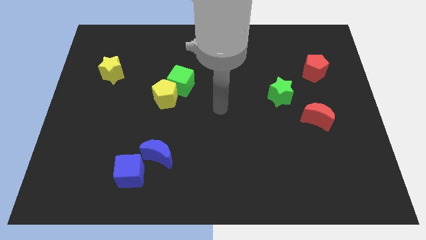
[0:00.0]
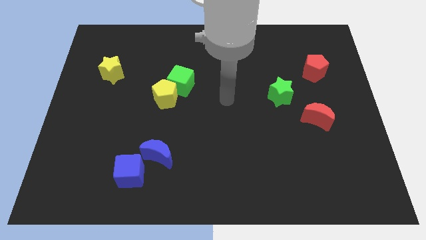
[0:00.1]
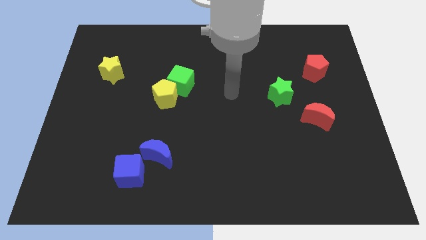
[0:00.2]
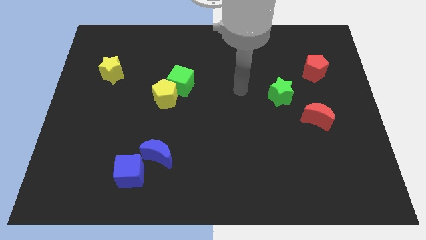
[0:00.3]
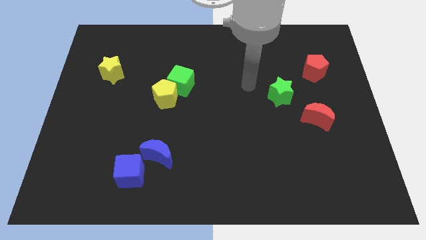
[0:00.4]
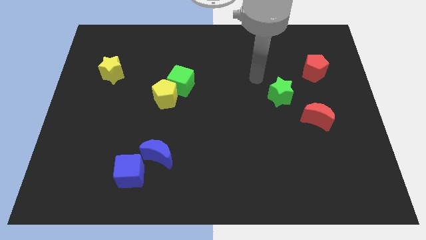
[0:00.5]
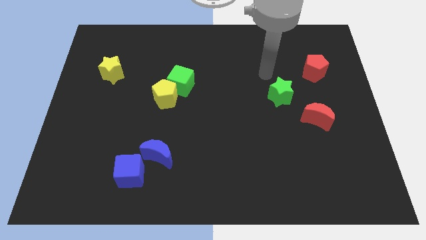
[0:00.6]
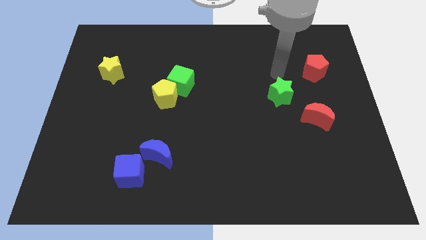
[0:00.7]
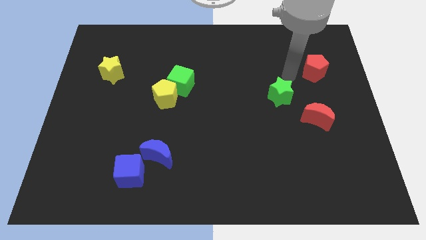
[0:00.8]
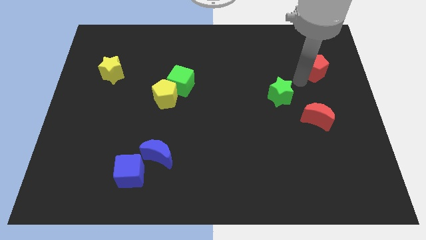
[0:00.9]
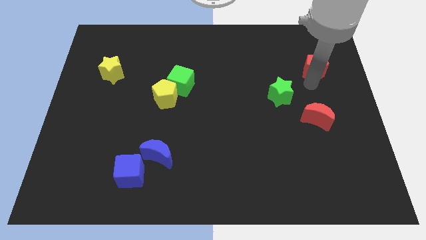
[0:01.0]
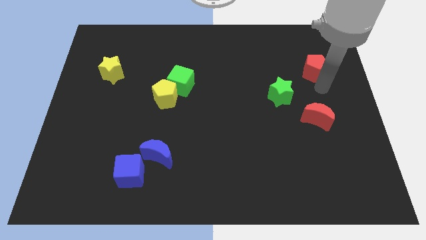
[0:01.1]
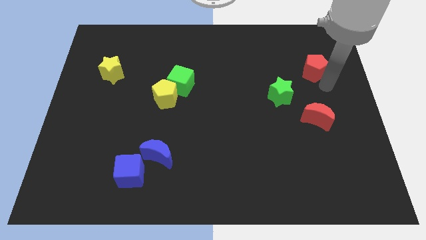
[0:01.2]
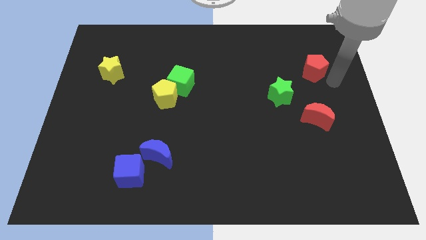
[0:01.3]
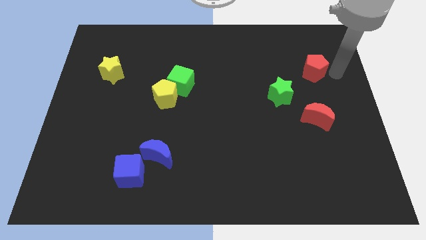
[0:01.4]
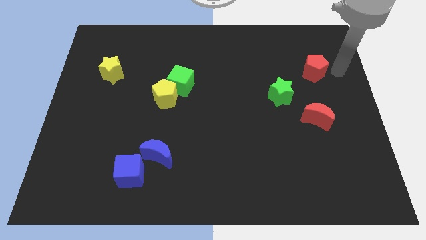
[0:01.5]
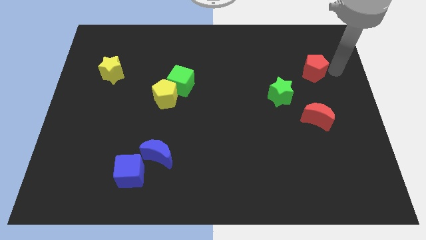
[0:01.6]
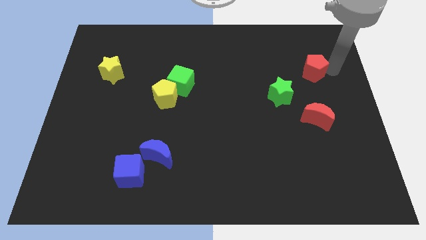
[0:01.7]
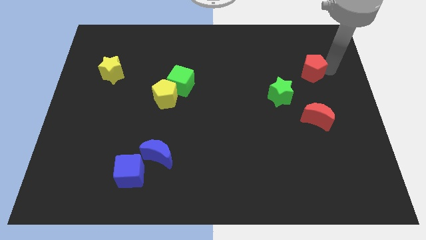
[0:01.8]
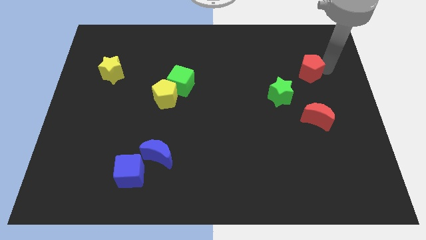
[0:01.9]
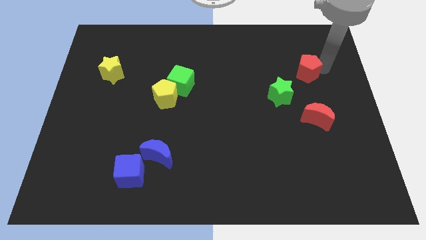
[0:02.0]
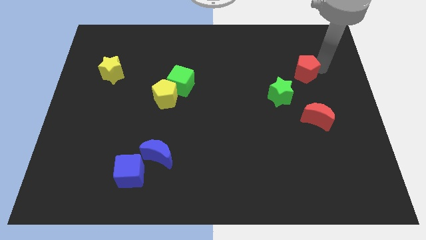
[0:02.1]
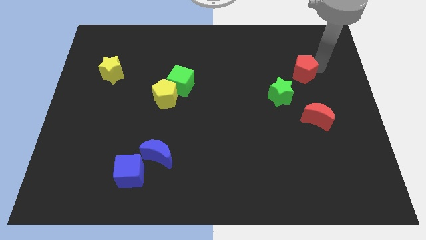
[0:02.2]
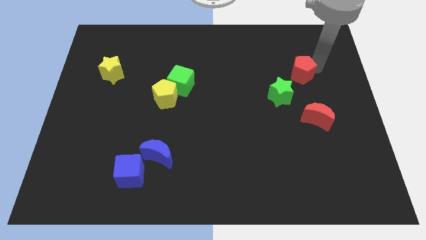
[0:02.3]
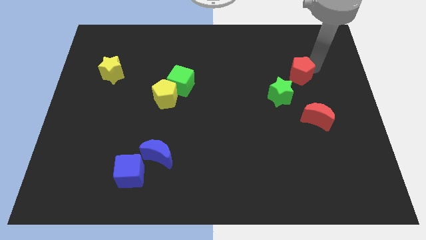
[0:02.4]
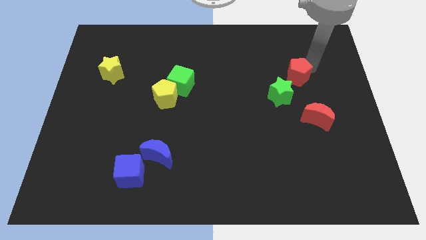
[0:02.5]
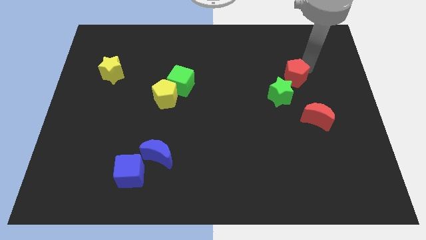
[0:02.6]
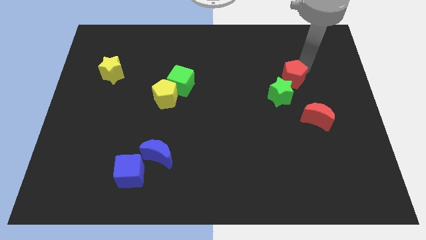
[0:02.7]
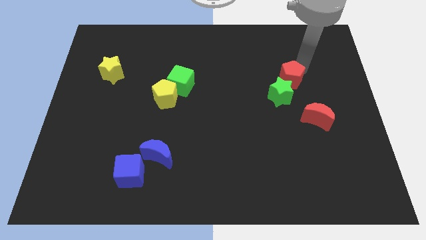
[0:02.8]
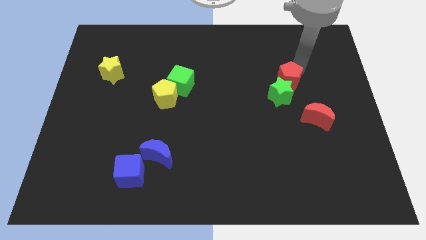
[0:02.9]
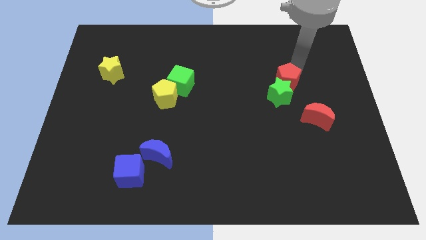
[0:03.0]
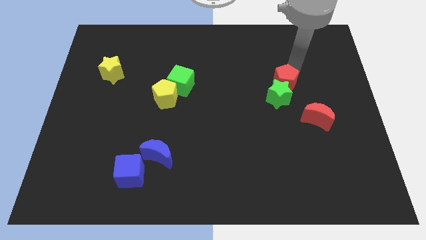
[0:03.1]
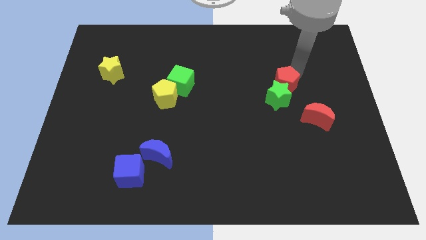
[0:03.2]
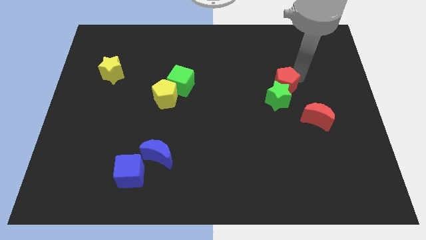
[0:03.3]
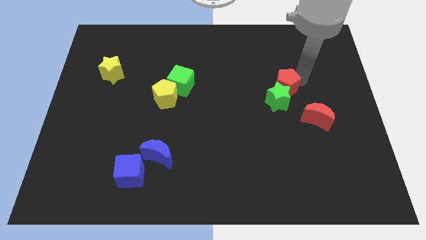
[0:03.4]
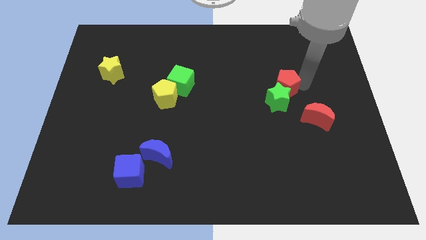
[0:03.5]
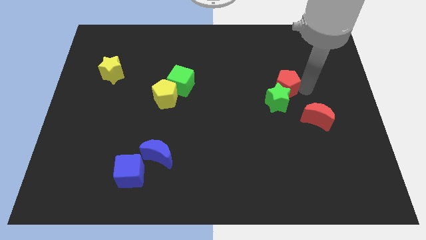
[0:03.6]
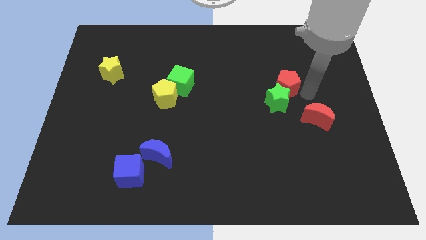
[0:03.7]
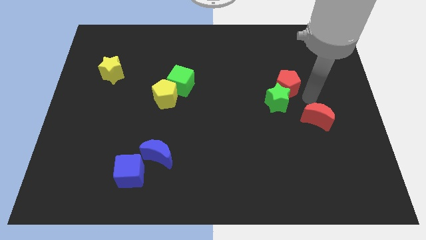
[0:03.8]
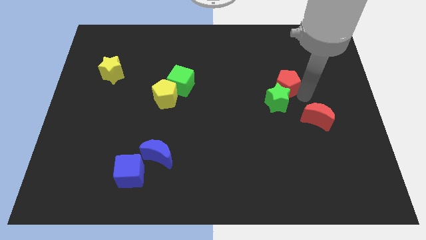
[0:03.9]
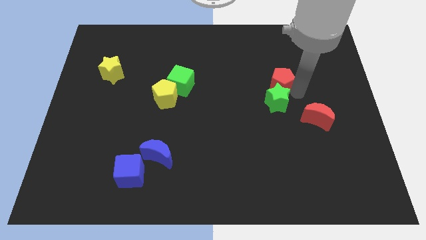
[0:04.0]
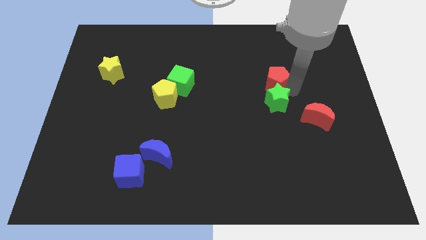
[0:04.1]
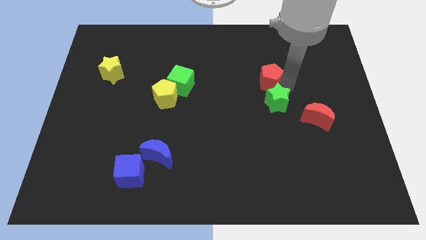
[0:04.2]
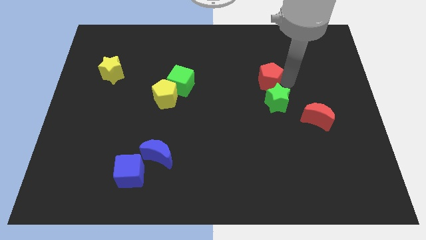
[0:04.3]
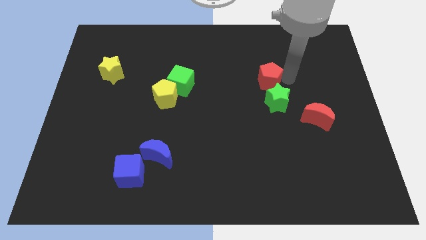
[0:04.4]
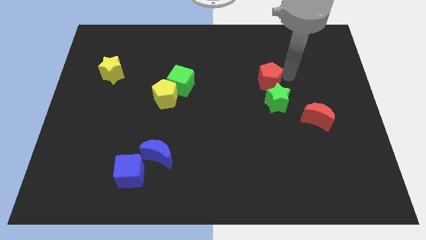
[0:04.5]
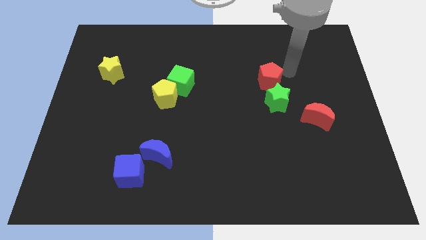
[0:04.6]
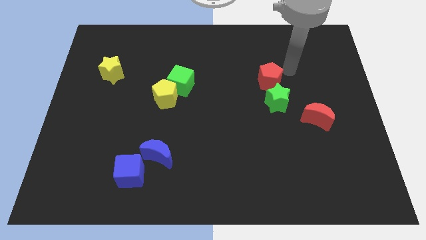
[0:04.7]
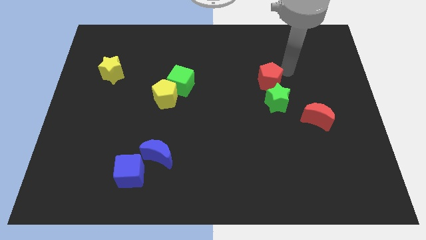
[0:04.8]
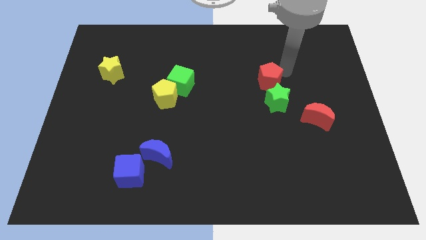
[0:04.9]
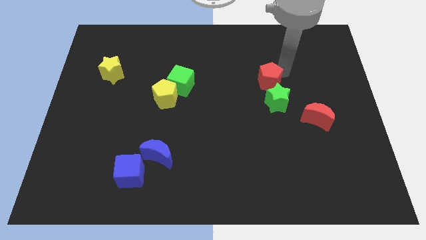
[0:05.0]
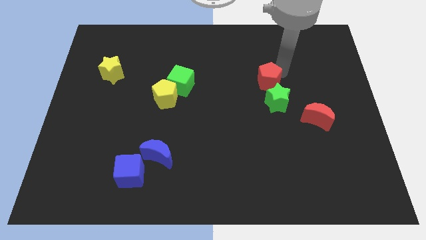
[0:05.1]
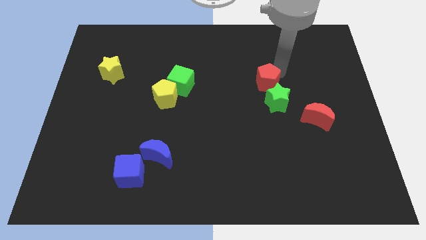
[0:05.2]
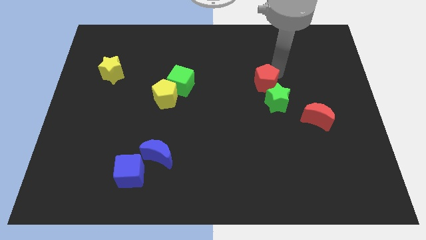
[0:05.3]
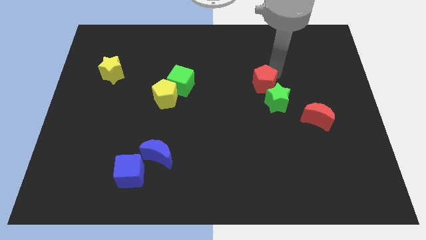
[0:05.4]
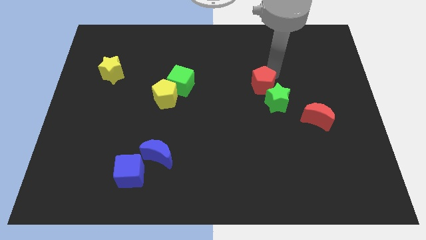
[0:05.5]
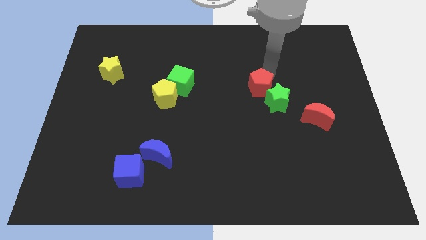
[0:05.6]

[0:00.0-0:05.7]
push the red pentagon to the center of the board
